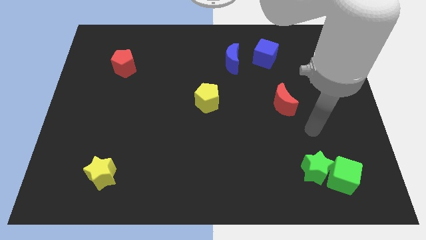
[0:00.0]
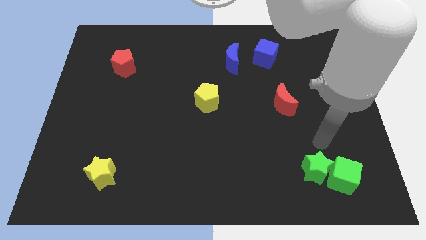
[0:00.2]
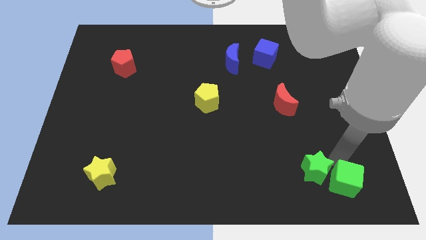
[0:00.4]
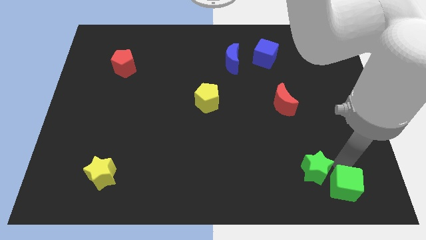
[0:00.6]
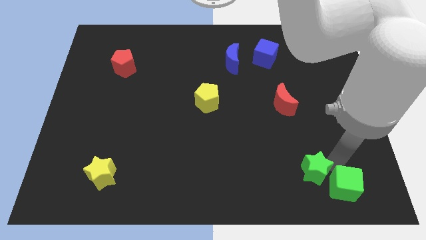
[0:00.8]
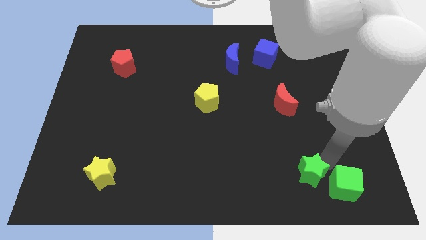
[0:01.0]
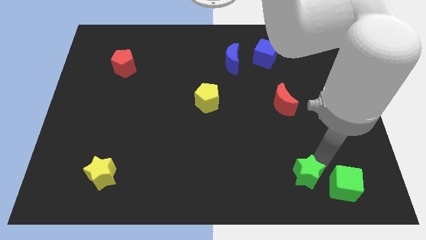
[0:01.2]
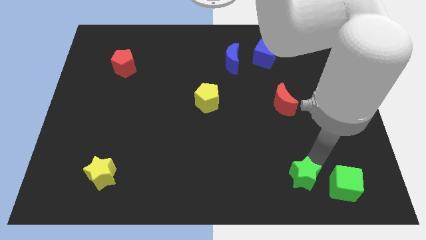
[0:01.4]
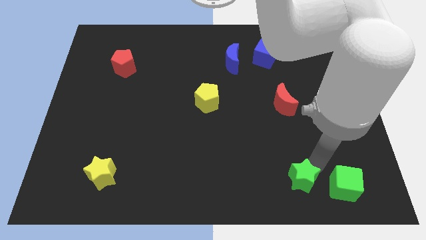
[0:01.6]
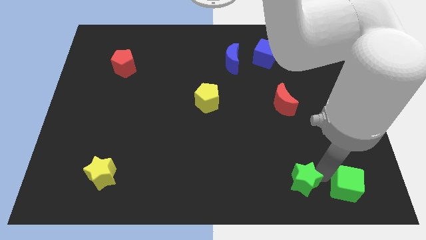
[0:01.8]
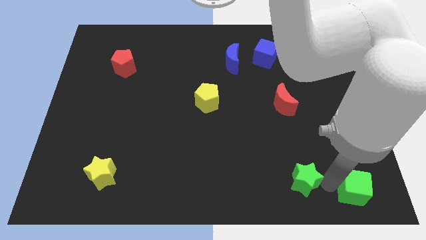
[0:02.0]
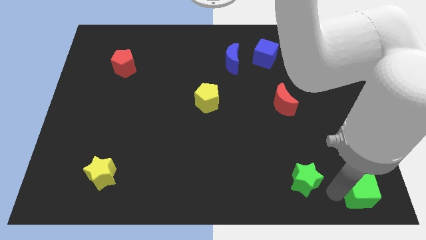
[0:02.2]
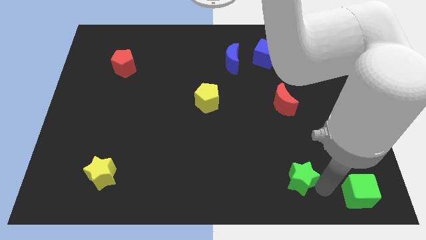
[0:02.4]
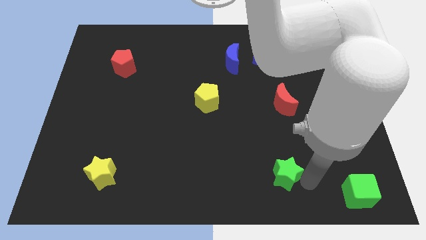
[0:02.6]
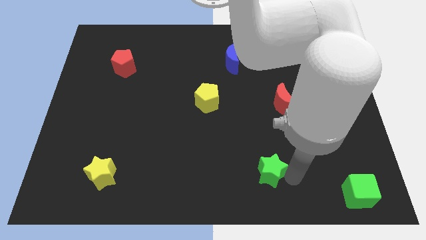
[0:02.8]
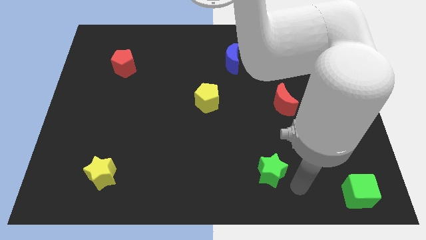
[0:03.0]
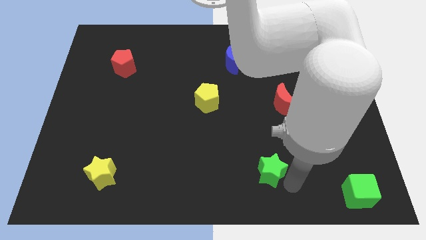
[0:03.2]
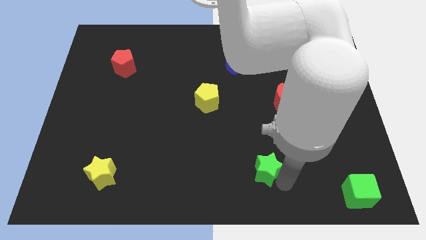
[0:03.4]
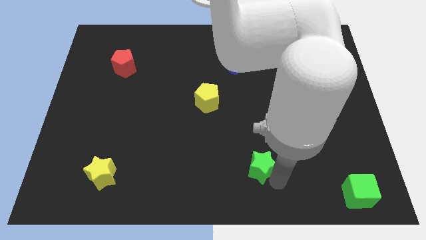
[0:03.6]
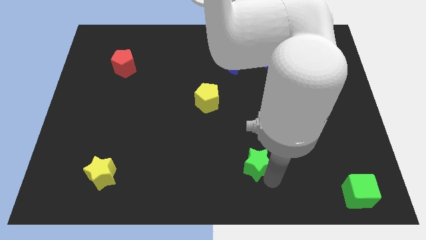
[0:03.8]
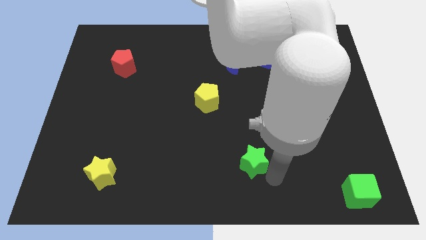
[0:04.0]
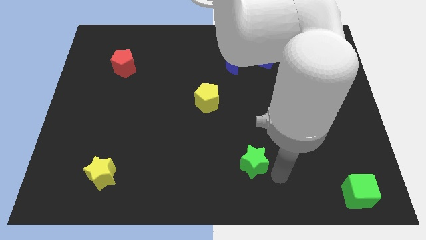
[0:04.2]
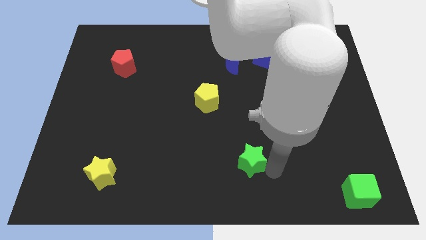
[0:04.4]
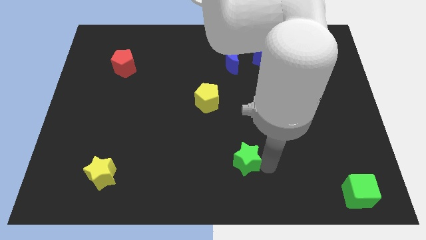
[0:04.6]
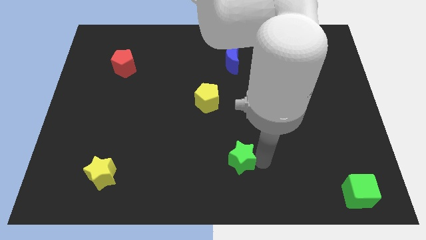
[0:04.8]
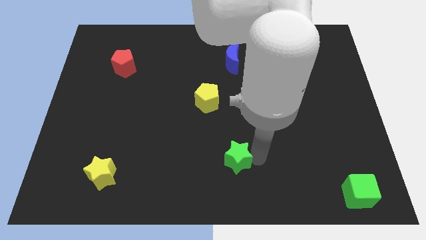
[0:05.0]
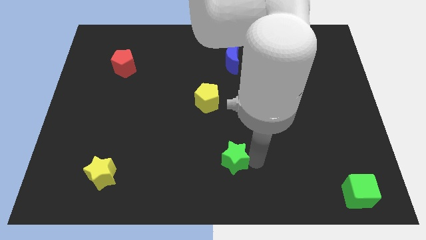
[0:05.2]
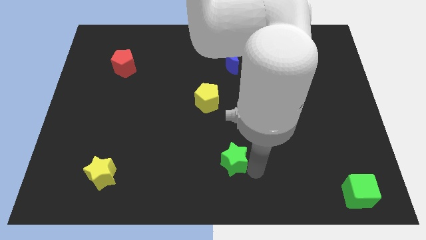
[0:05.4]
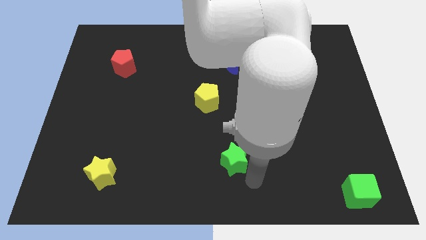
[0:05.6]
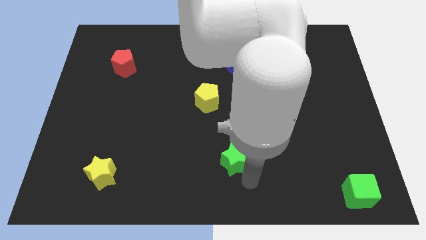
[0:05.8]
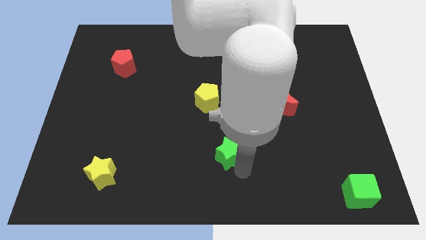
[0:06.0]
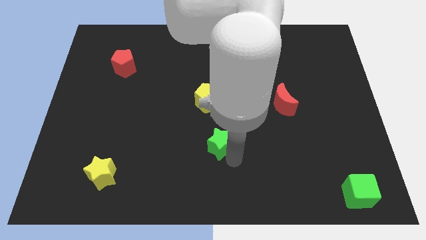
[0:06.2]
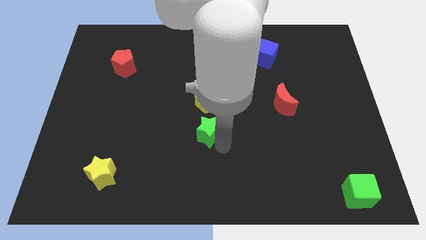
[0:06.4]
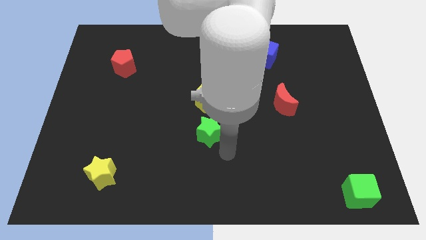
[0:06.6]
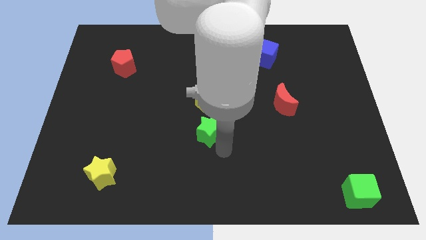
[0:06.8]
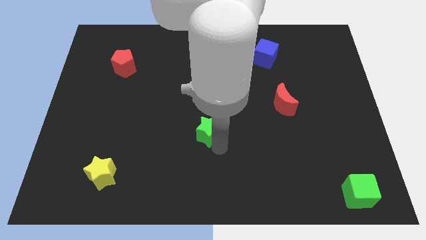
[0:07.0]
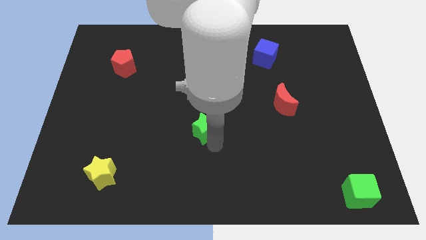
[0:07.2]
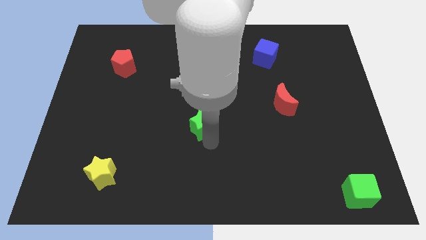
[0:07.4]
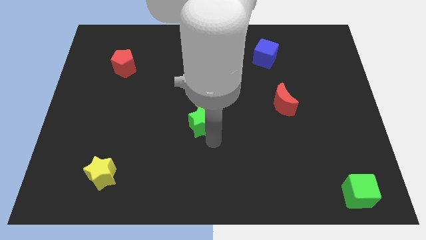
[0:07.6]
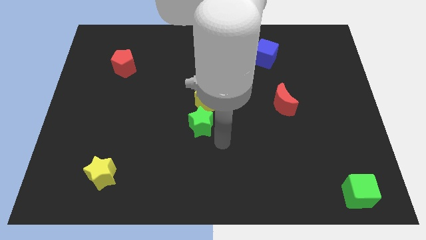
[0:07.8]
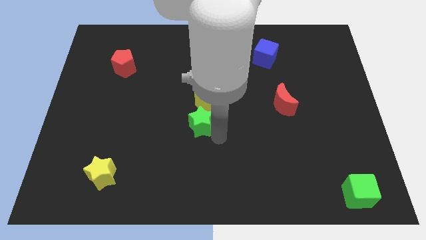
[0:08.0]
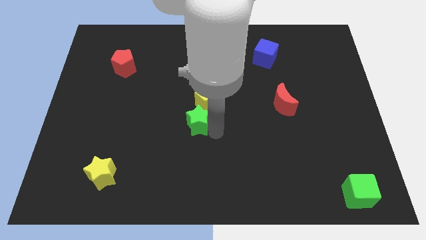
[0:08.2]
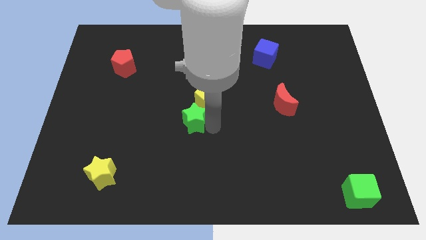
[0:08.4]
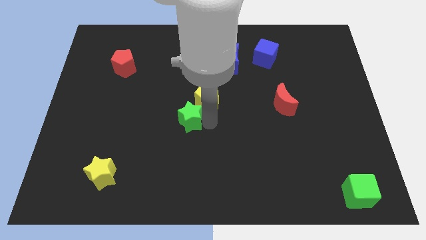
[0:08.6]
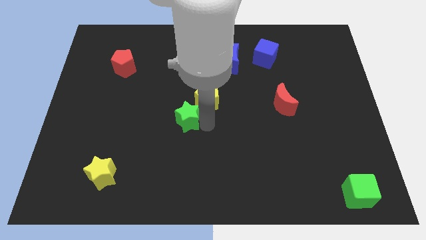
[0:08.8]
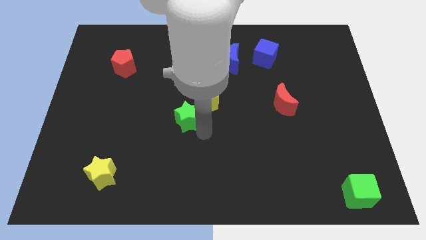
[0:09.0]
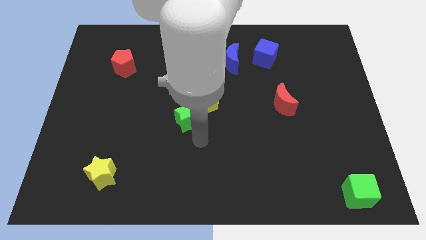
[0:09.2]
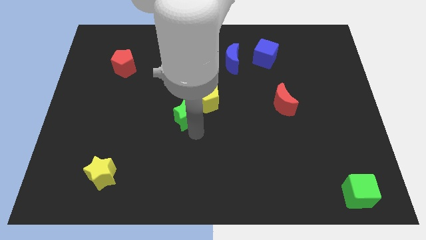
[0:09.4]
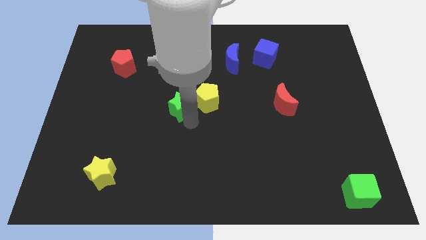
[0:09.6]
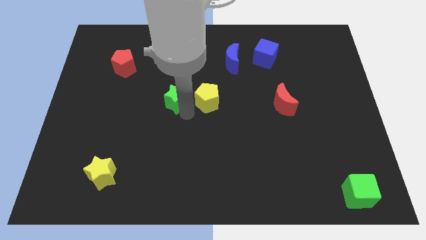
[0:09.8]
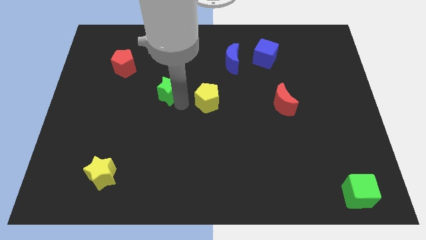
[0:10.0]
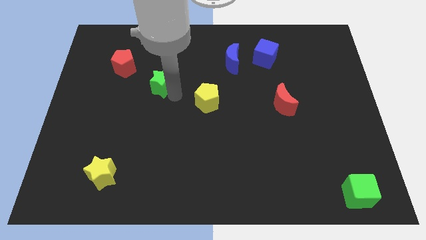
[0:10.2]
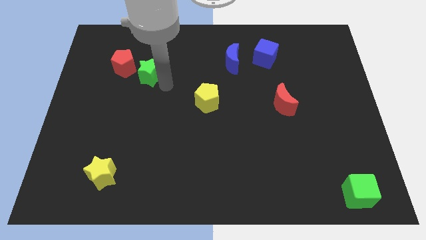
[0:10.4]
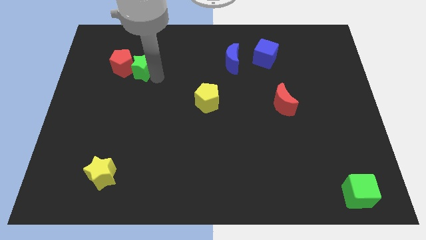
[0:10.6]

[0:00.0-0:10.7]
push the green star next to the red pentagon

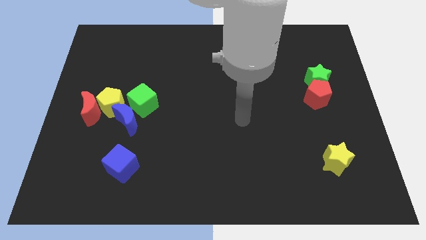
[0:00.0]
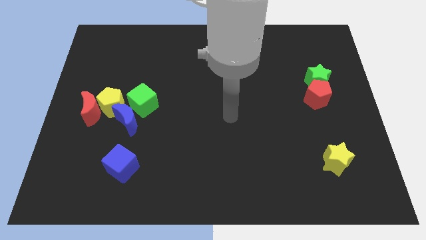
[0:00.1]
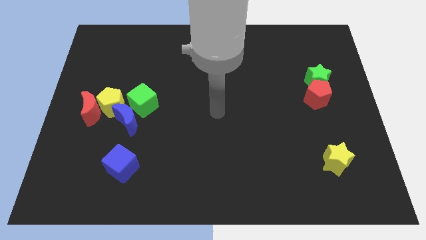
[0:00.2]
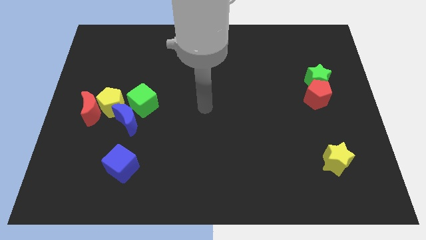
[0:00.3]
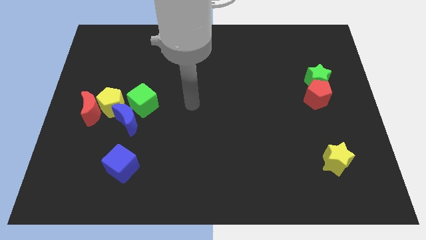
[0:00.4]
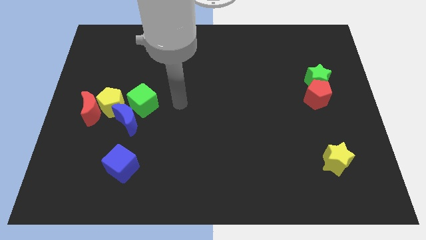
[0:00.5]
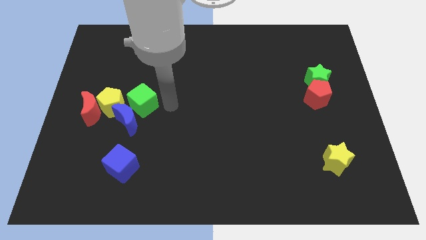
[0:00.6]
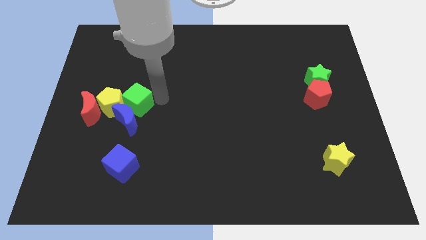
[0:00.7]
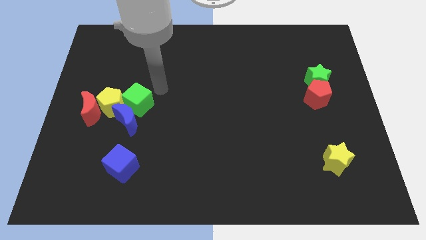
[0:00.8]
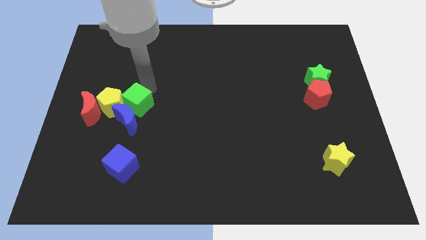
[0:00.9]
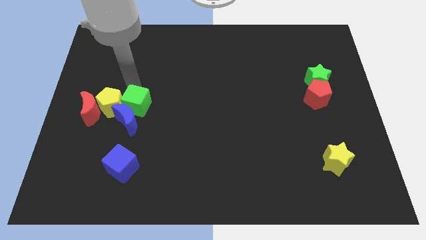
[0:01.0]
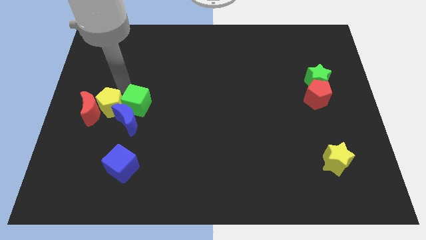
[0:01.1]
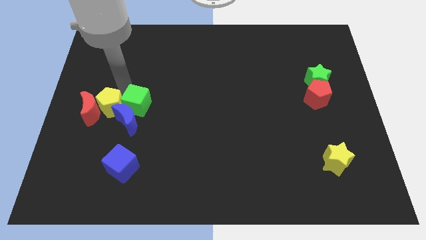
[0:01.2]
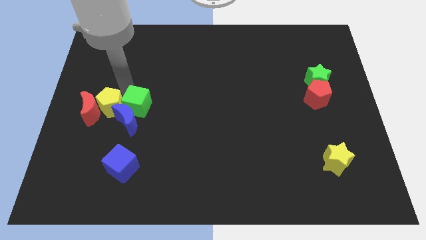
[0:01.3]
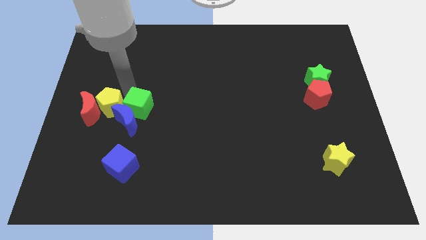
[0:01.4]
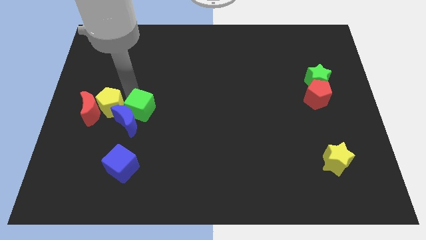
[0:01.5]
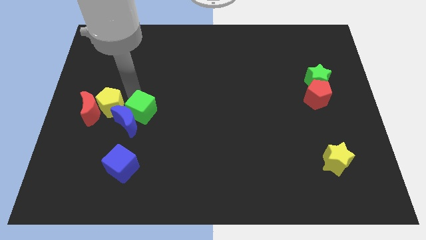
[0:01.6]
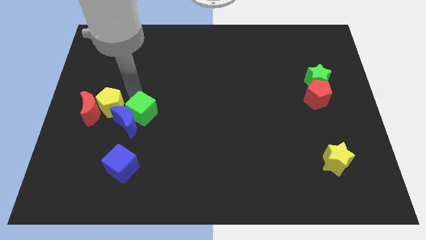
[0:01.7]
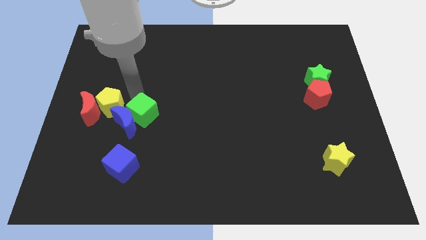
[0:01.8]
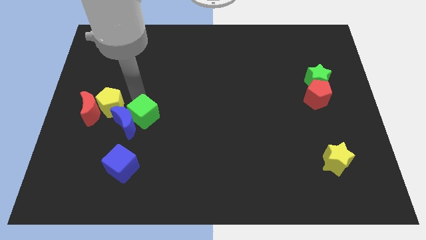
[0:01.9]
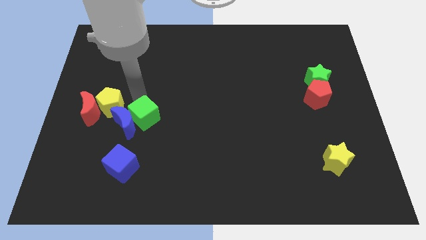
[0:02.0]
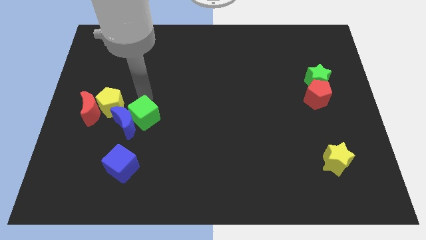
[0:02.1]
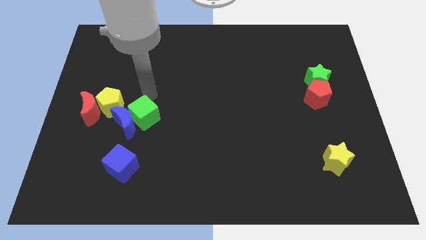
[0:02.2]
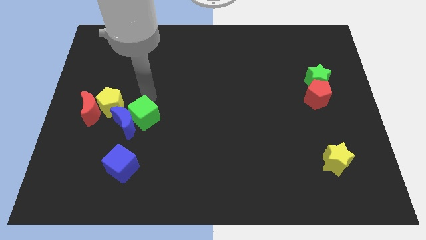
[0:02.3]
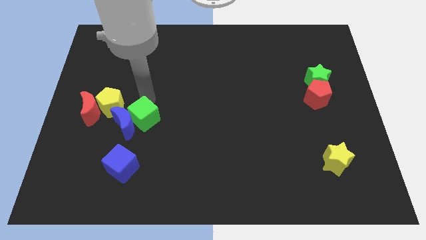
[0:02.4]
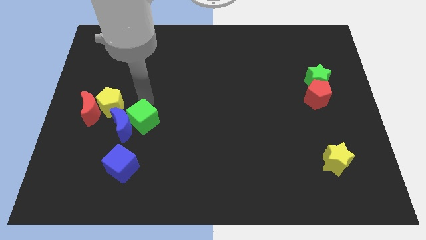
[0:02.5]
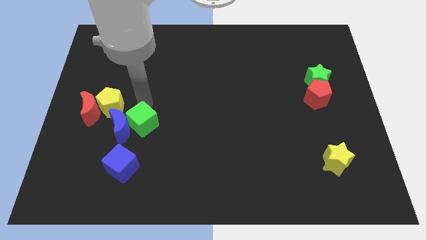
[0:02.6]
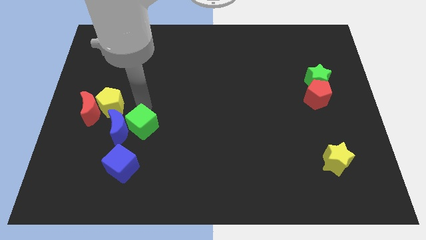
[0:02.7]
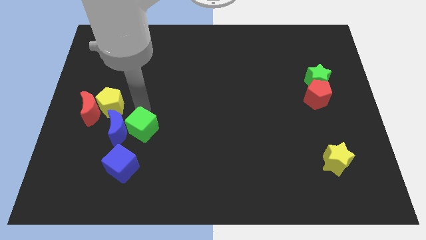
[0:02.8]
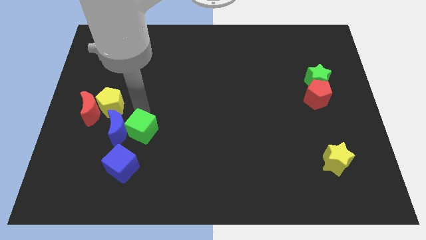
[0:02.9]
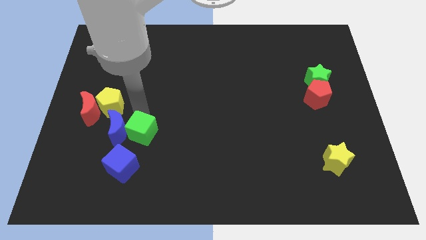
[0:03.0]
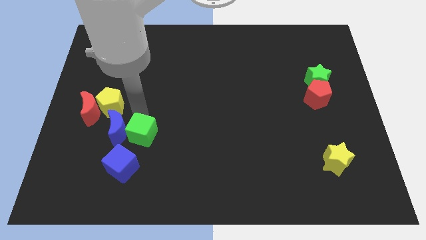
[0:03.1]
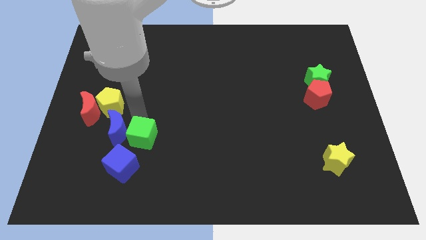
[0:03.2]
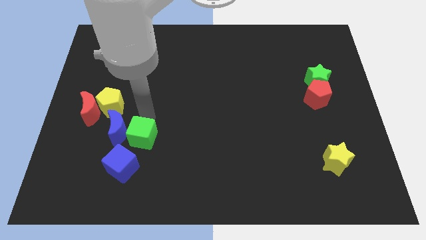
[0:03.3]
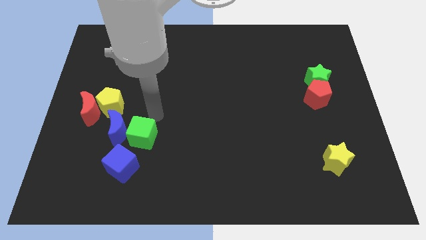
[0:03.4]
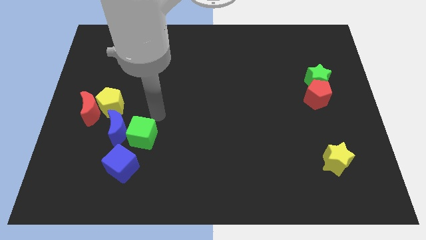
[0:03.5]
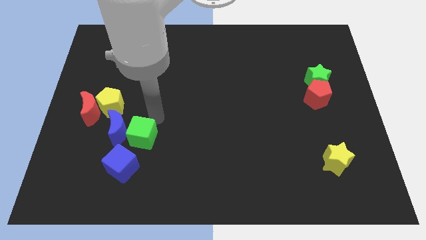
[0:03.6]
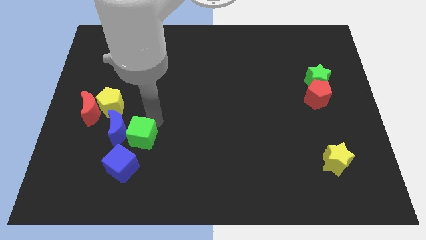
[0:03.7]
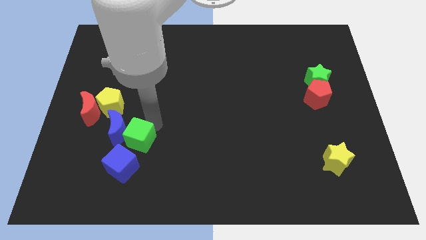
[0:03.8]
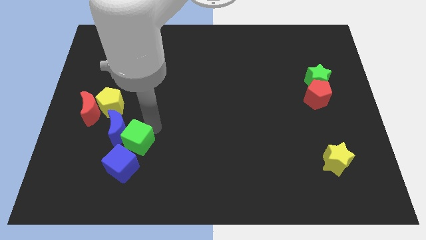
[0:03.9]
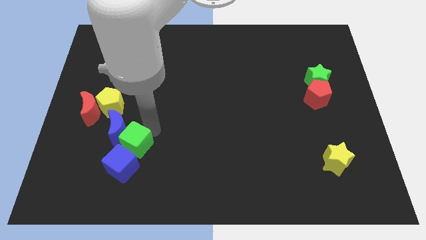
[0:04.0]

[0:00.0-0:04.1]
put the green cube close to the blue cube
